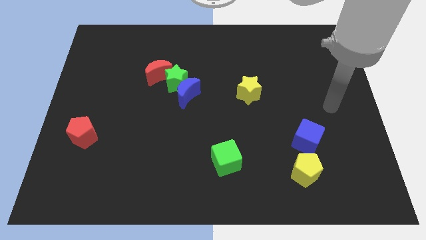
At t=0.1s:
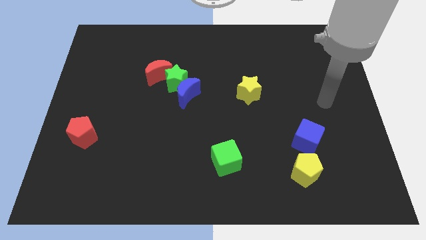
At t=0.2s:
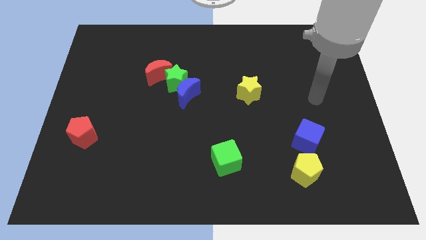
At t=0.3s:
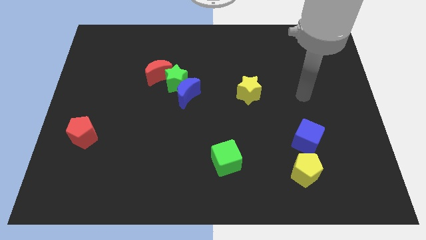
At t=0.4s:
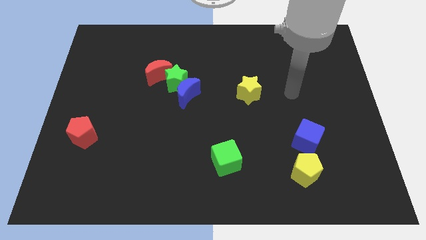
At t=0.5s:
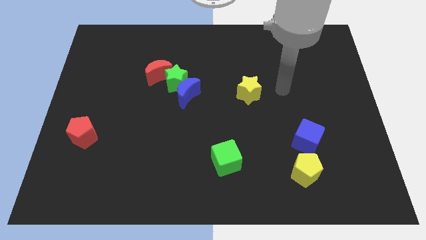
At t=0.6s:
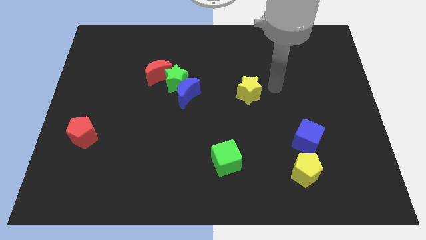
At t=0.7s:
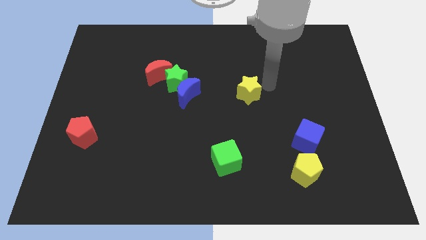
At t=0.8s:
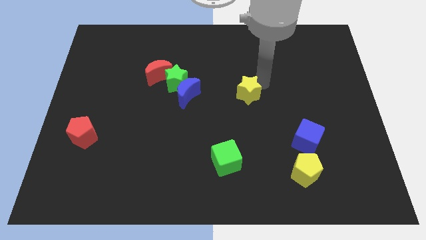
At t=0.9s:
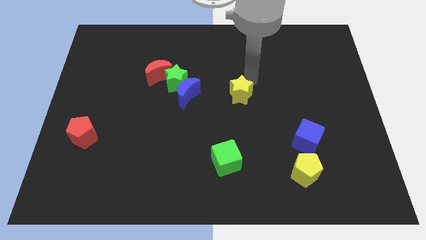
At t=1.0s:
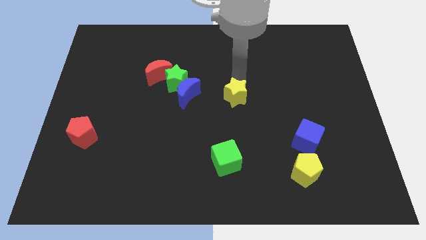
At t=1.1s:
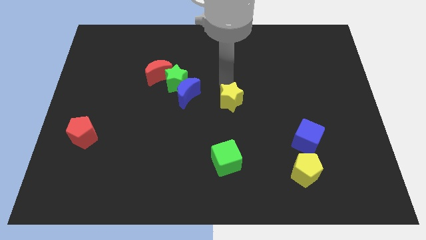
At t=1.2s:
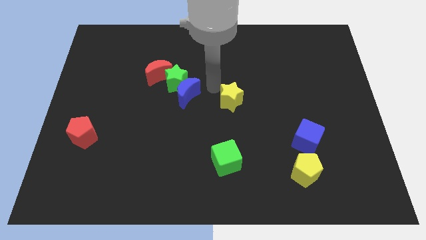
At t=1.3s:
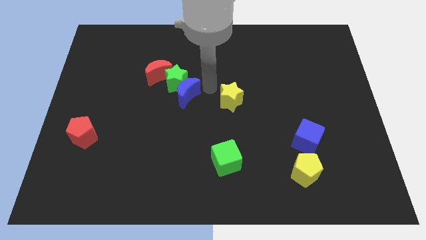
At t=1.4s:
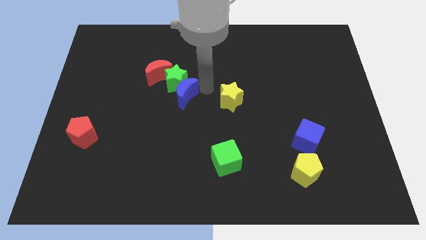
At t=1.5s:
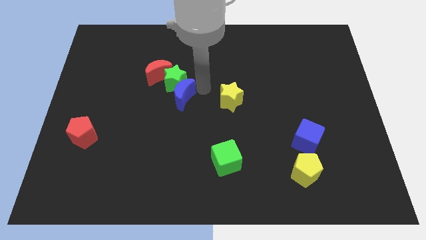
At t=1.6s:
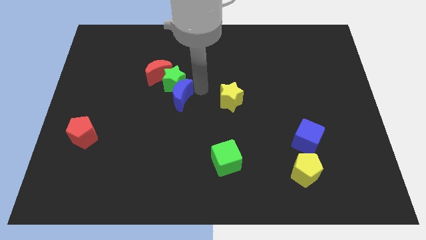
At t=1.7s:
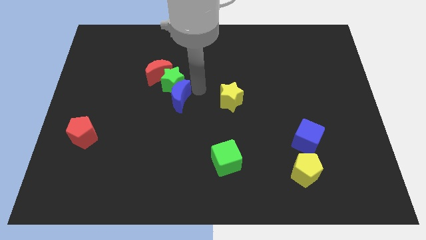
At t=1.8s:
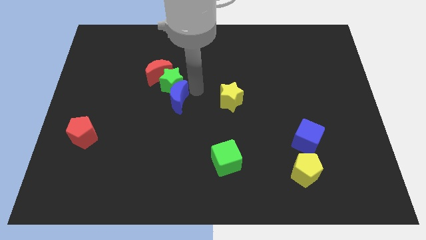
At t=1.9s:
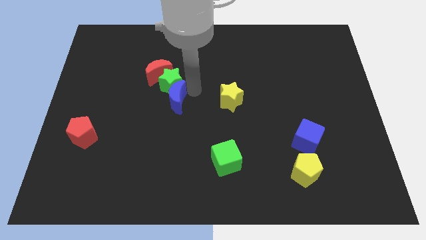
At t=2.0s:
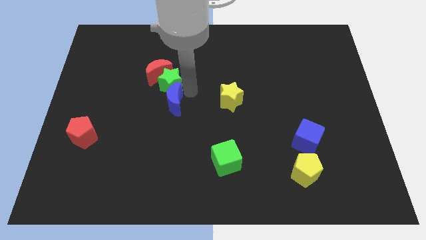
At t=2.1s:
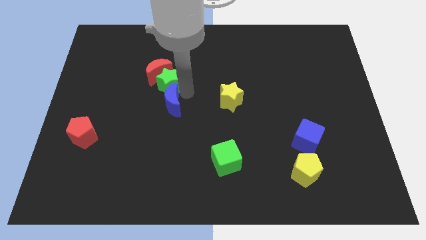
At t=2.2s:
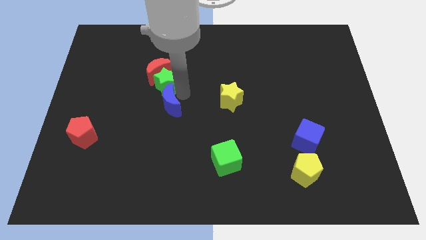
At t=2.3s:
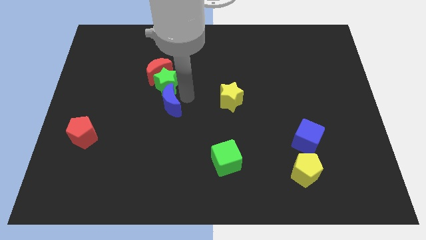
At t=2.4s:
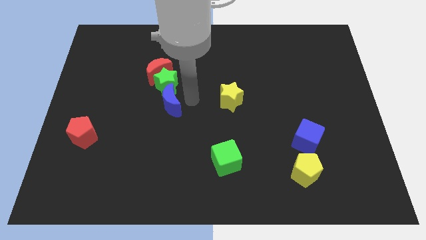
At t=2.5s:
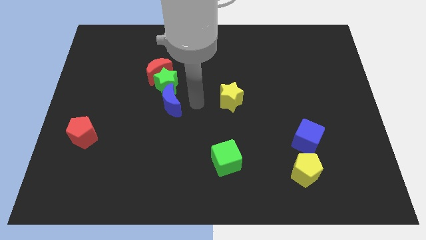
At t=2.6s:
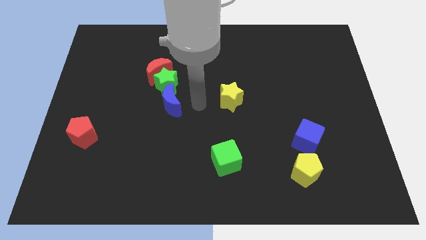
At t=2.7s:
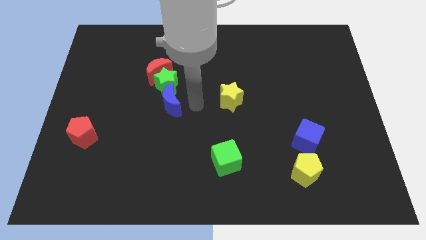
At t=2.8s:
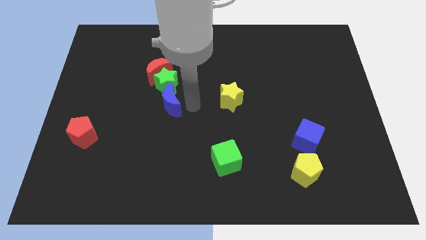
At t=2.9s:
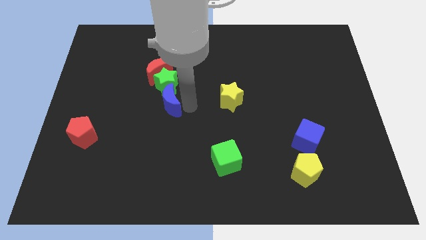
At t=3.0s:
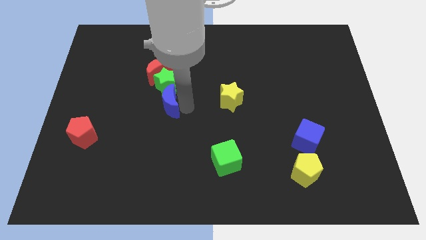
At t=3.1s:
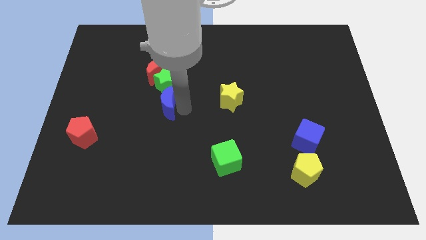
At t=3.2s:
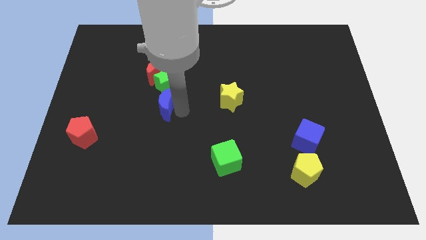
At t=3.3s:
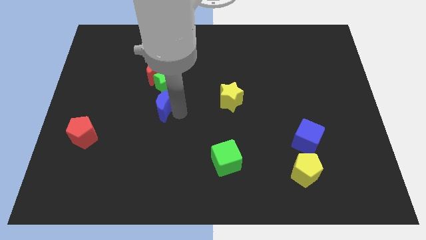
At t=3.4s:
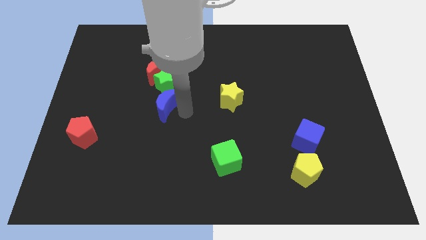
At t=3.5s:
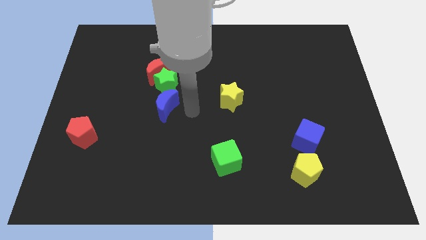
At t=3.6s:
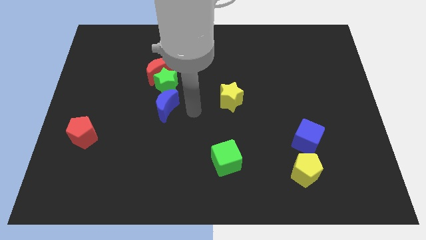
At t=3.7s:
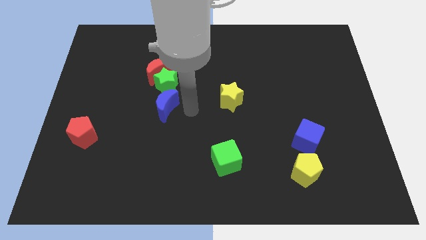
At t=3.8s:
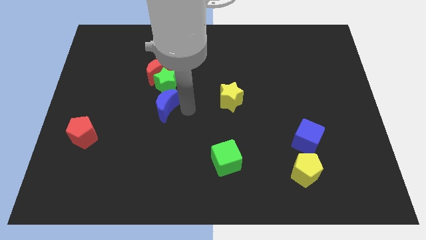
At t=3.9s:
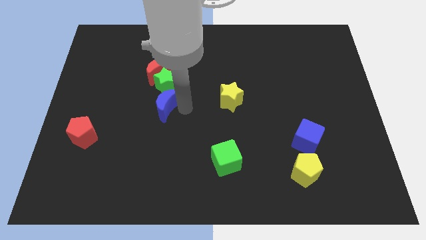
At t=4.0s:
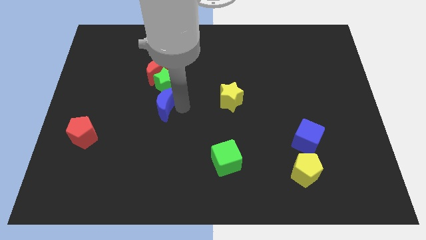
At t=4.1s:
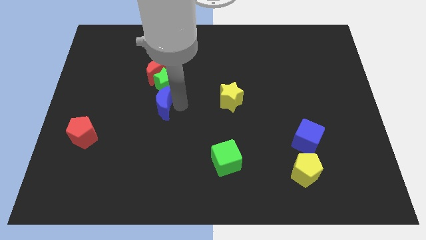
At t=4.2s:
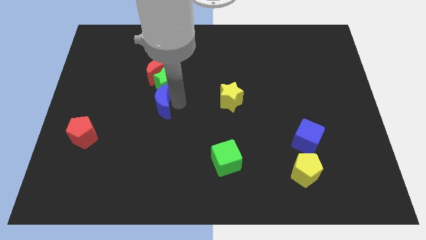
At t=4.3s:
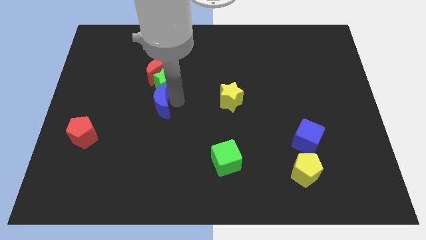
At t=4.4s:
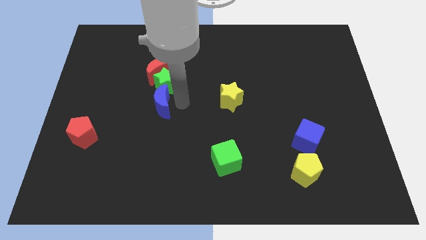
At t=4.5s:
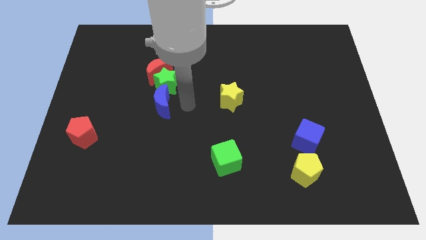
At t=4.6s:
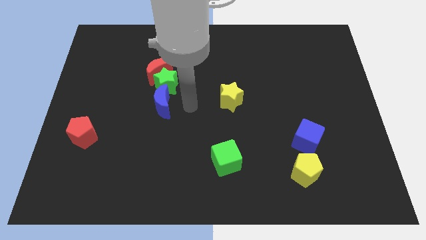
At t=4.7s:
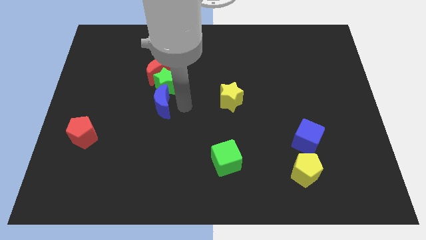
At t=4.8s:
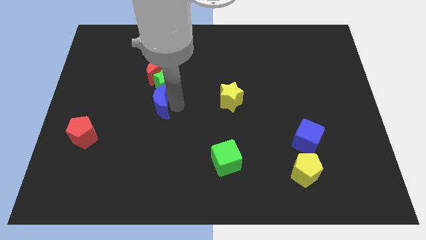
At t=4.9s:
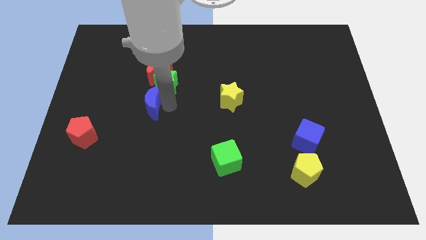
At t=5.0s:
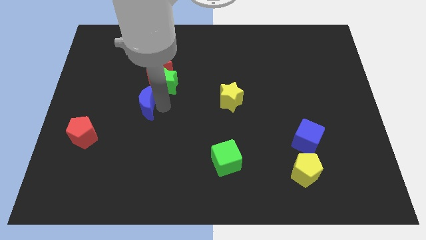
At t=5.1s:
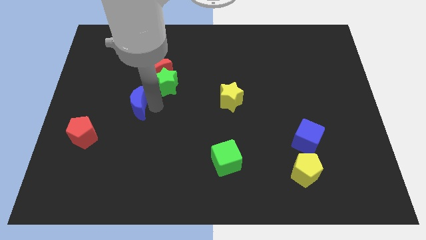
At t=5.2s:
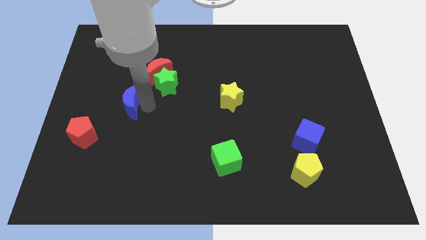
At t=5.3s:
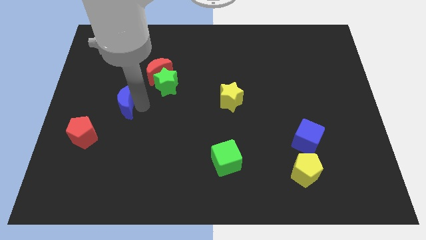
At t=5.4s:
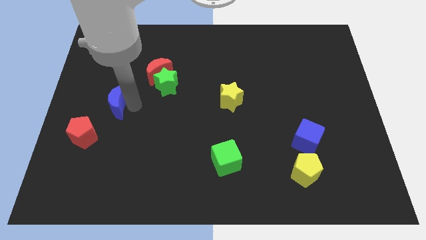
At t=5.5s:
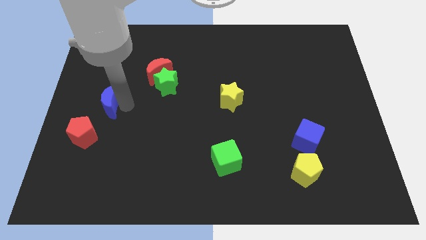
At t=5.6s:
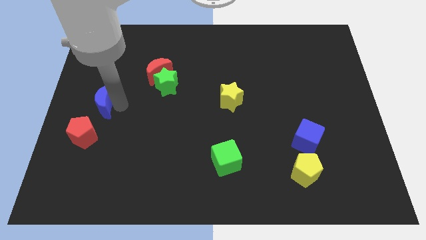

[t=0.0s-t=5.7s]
push the blue moon to the left side
